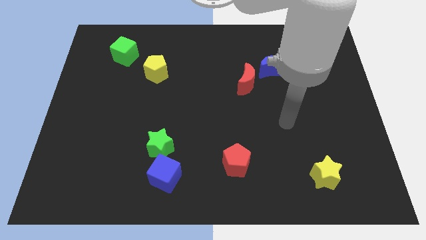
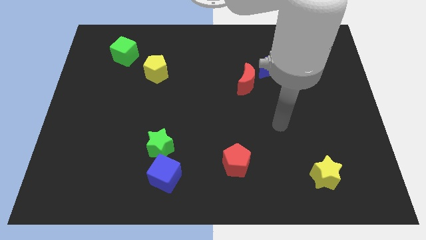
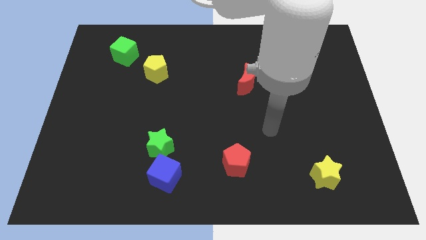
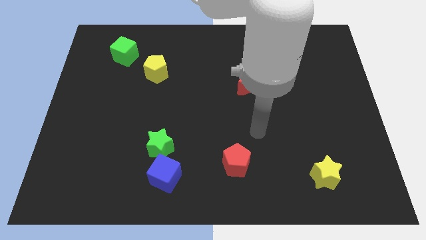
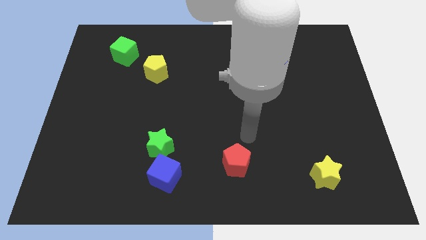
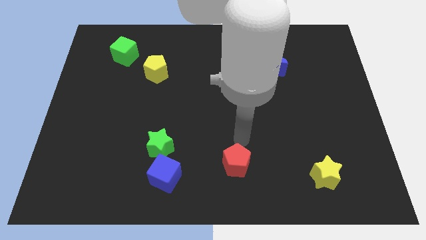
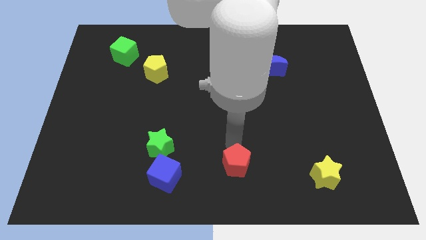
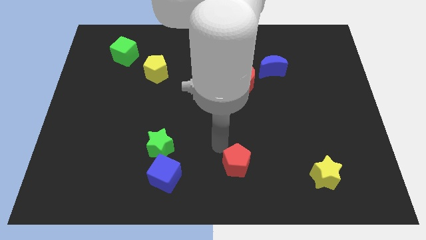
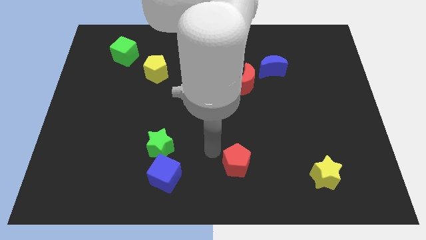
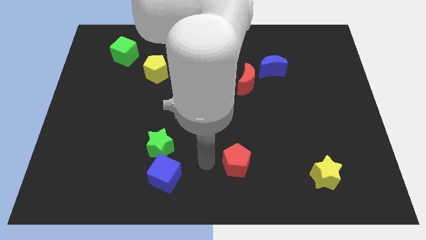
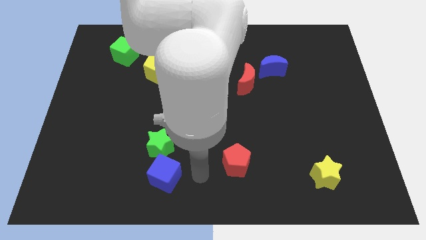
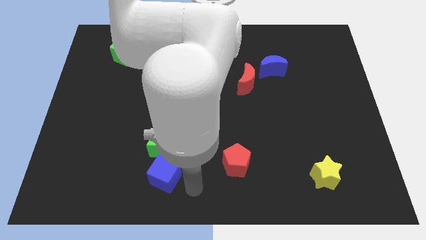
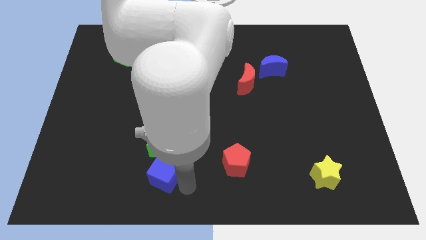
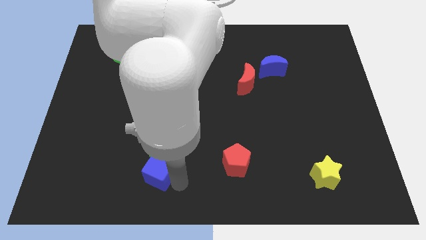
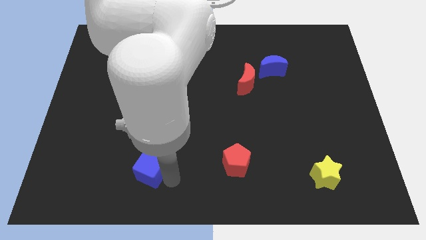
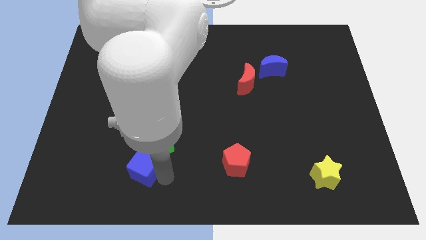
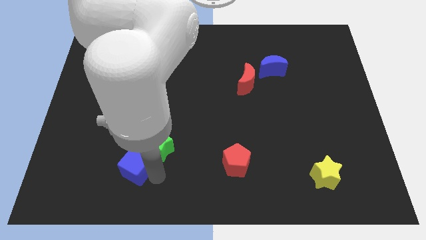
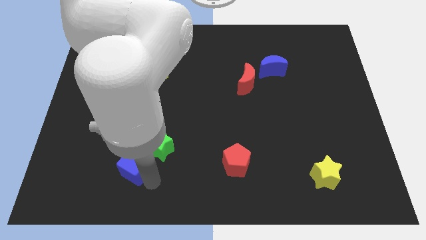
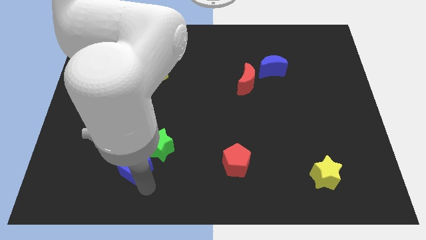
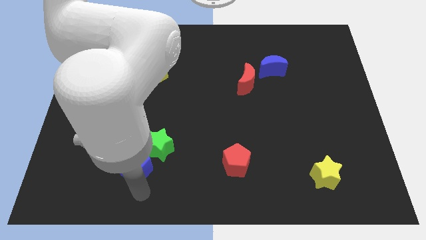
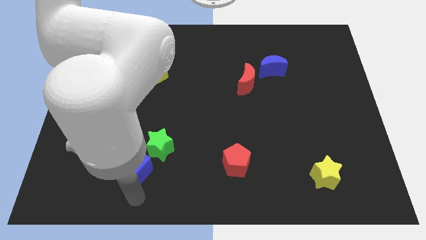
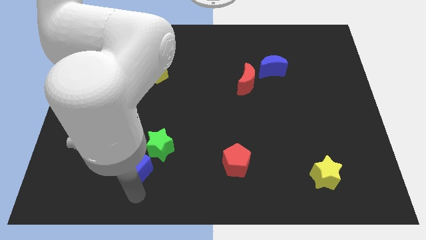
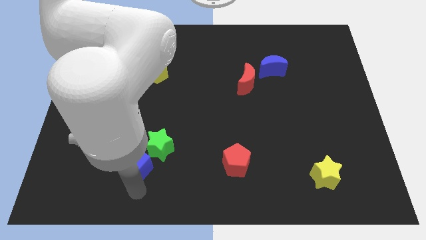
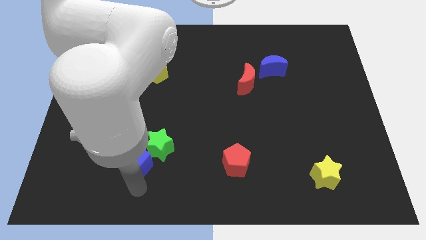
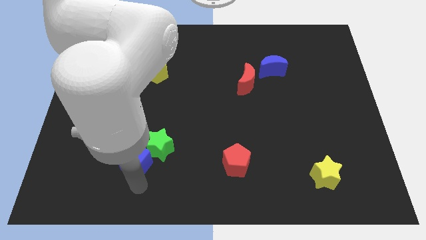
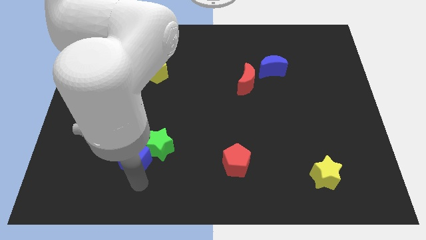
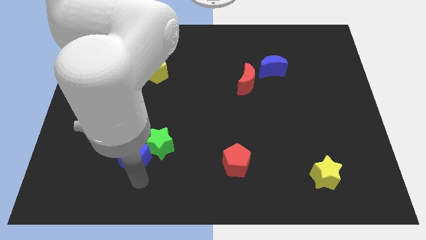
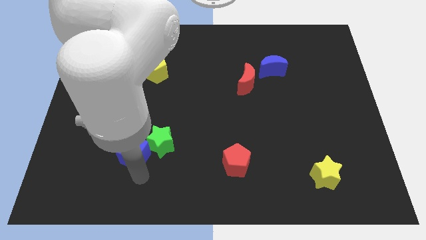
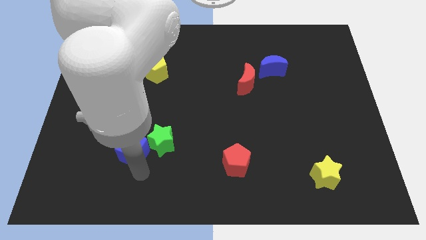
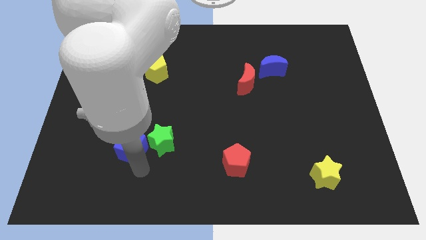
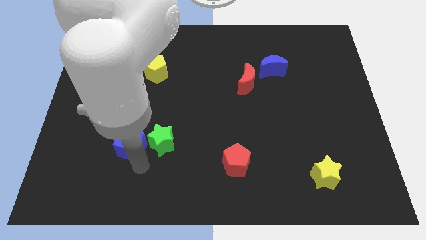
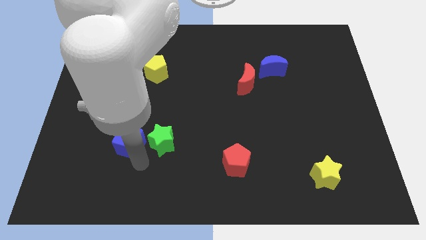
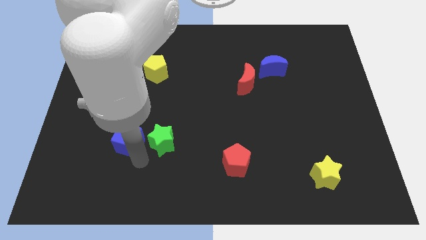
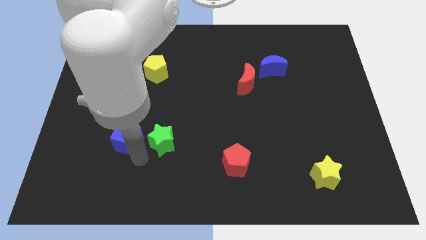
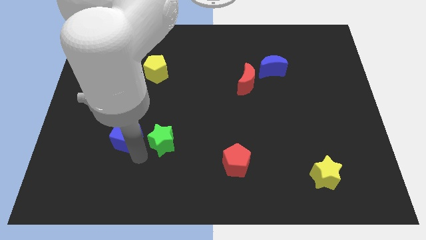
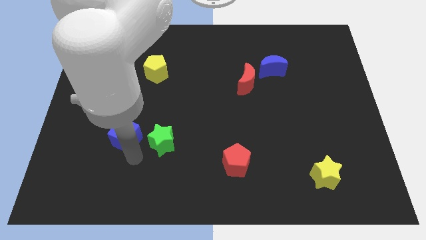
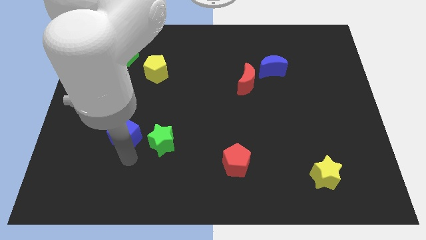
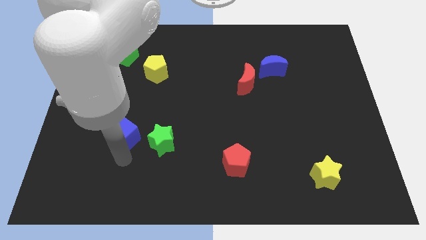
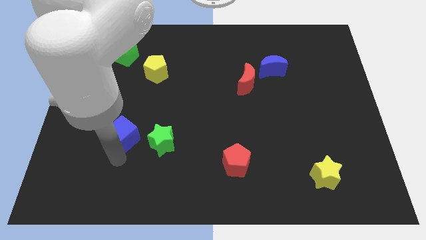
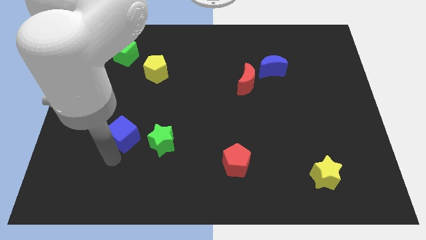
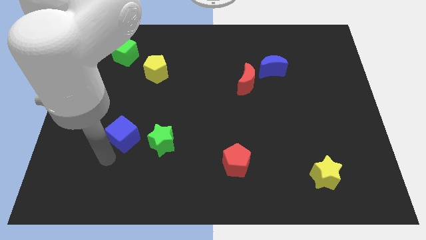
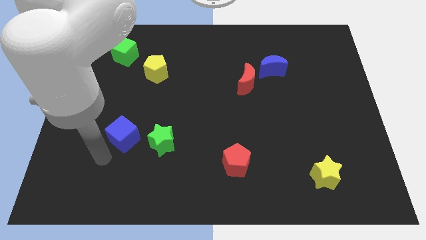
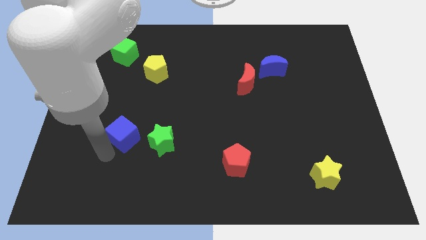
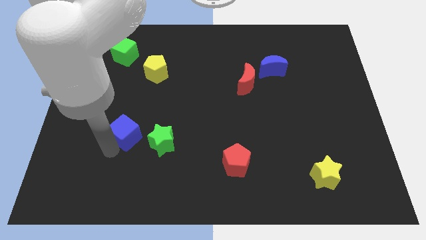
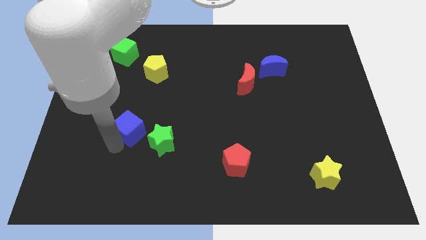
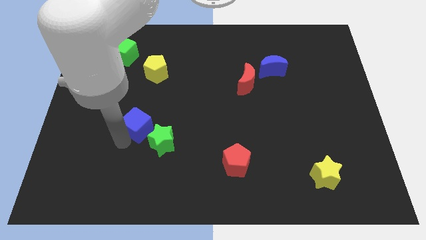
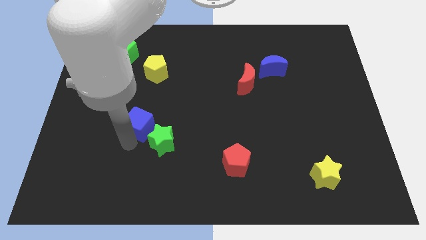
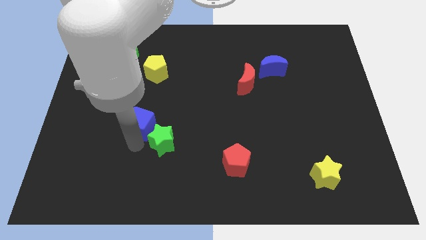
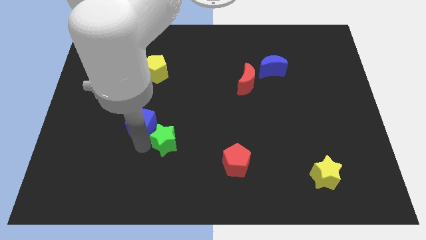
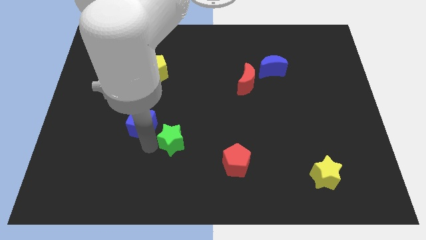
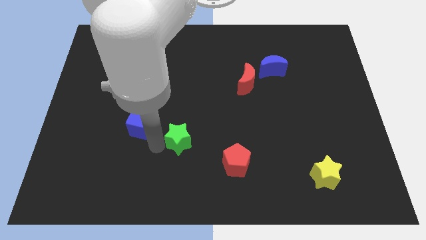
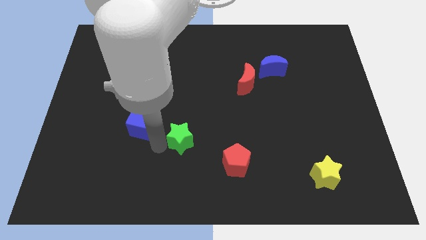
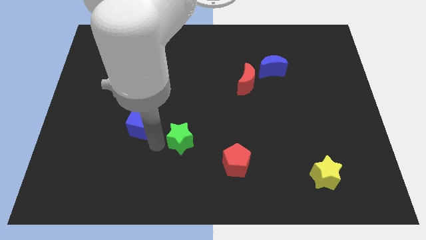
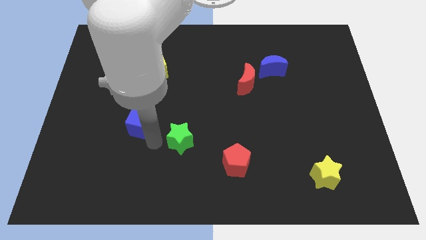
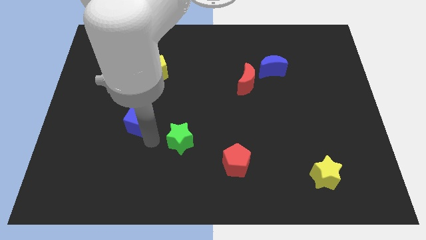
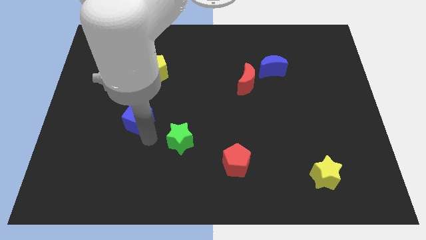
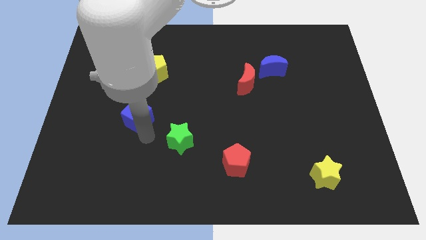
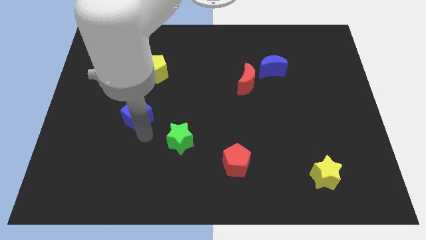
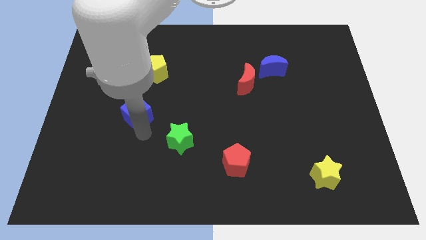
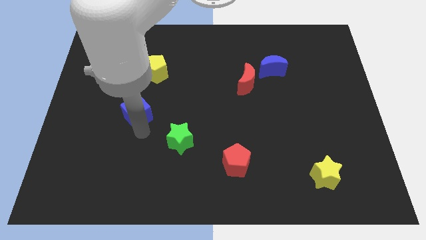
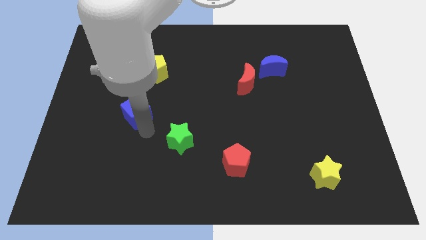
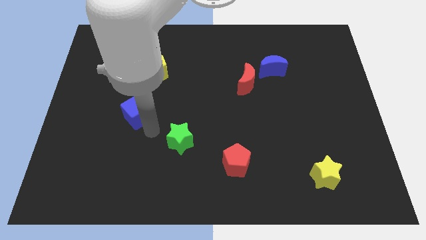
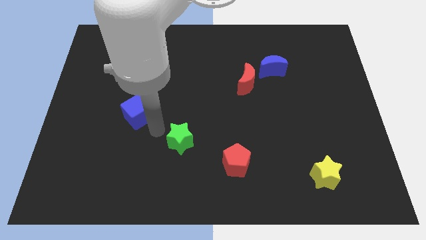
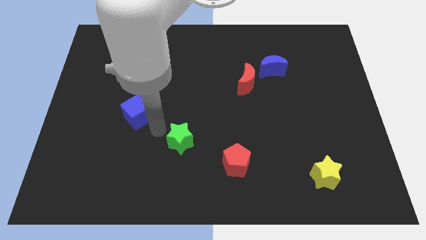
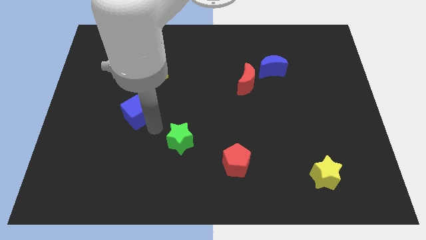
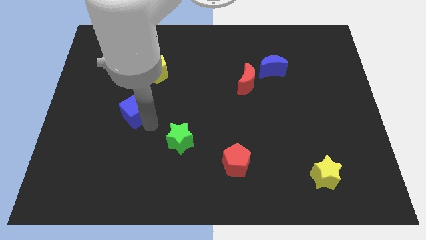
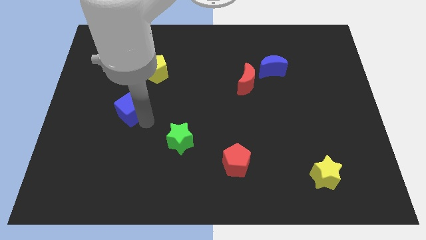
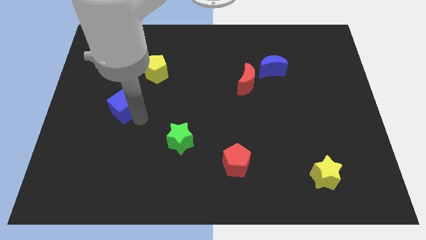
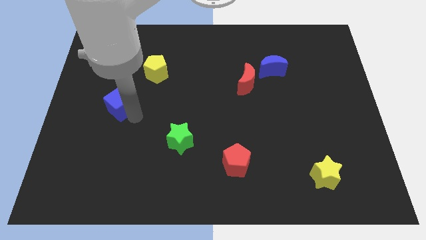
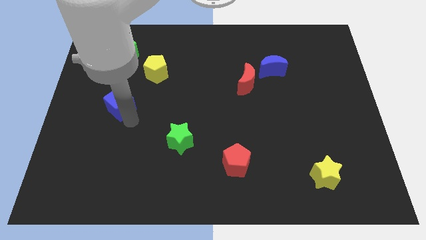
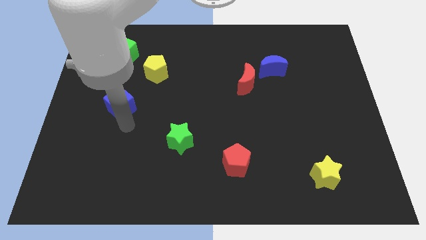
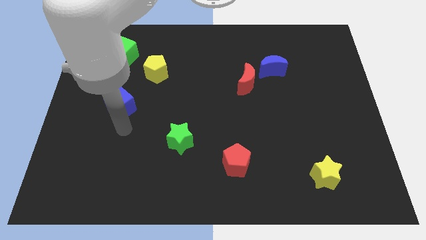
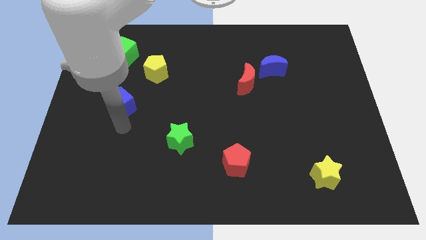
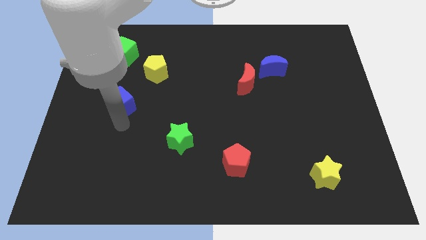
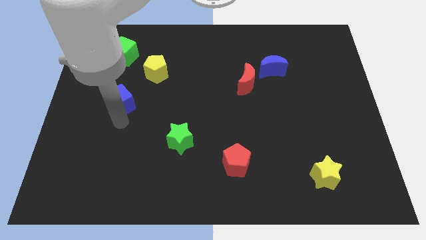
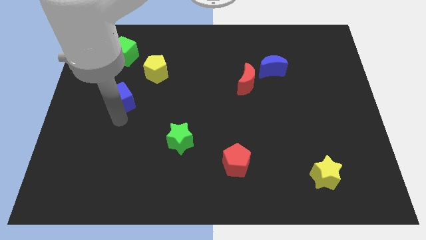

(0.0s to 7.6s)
put the blue cube to the bottom of the green cube
